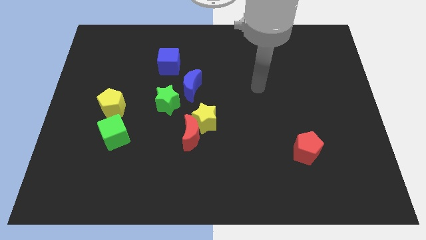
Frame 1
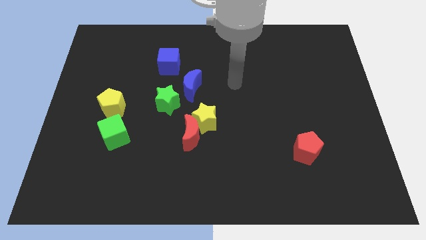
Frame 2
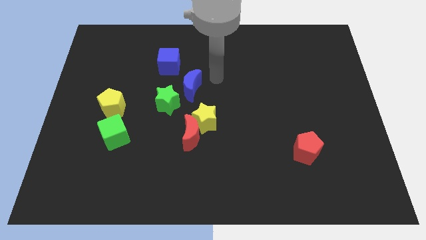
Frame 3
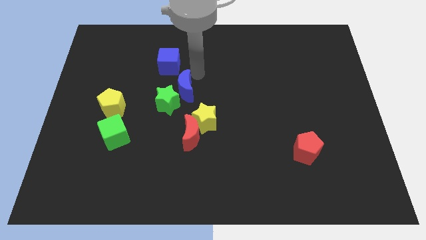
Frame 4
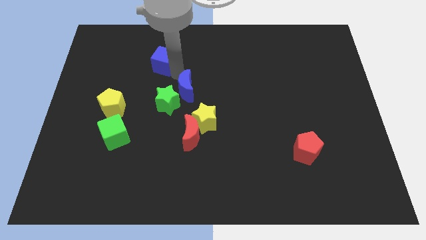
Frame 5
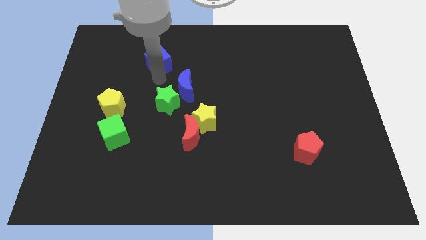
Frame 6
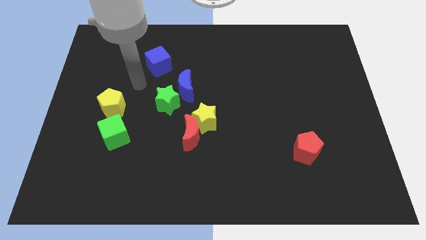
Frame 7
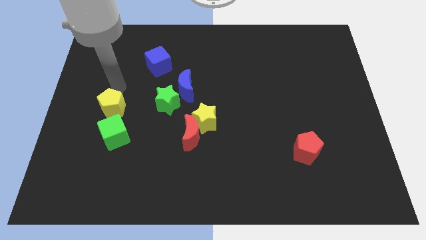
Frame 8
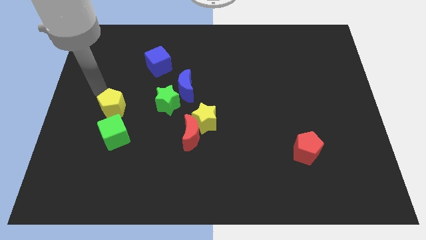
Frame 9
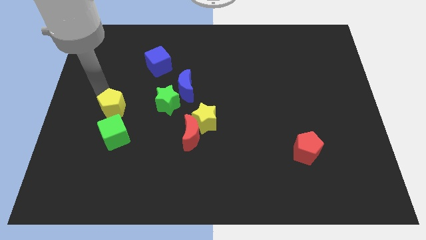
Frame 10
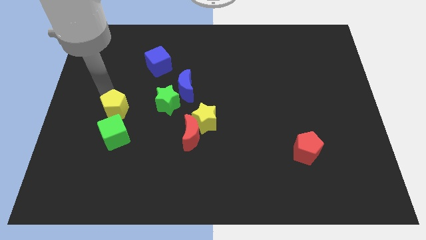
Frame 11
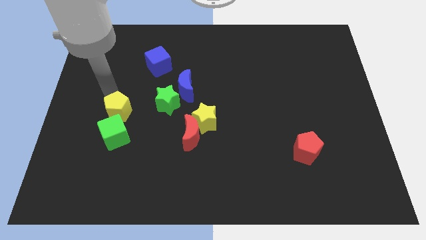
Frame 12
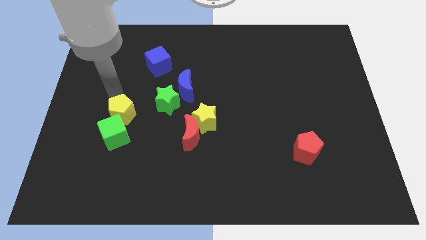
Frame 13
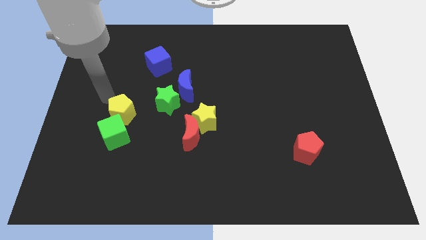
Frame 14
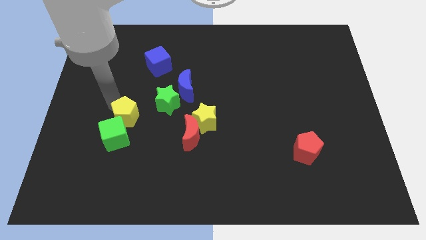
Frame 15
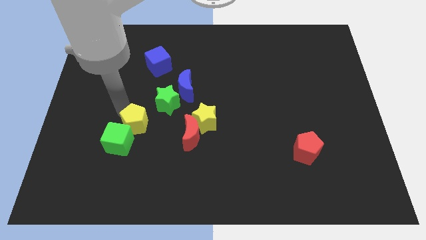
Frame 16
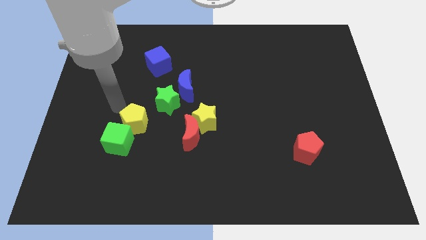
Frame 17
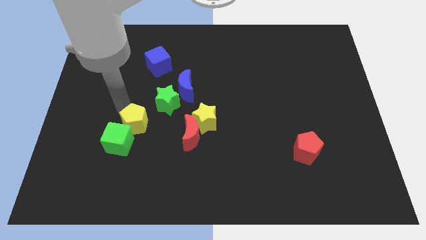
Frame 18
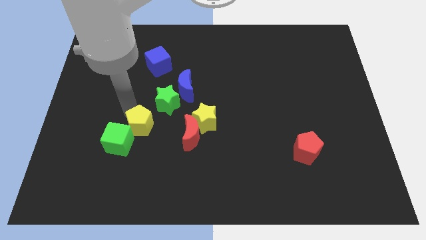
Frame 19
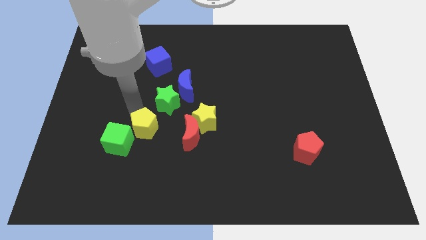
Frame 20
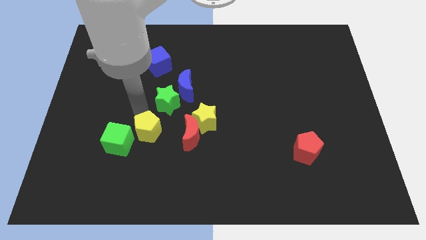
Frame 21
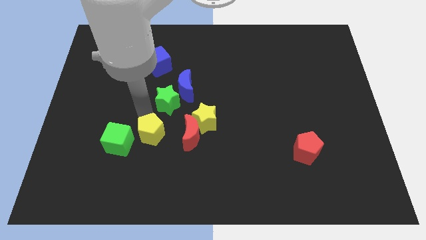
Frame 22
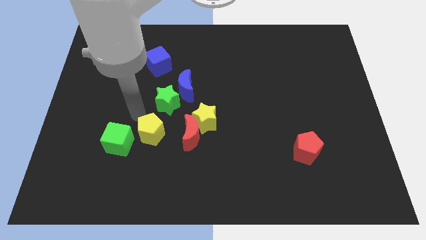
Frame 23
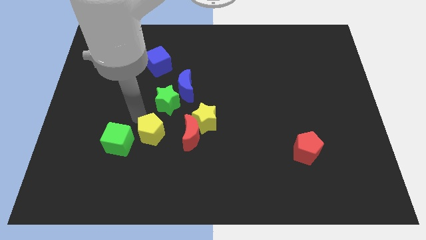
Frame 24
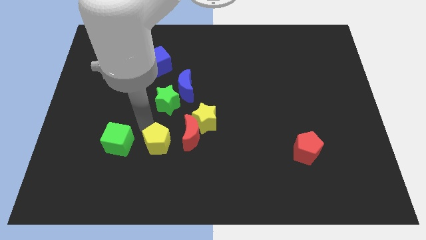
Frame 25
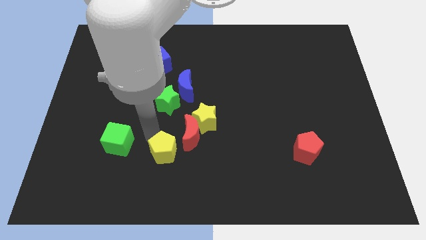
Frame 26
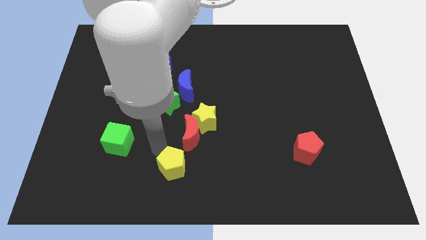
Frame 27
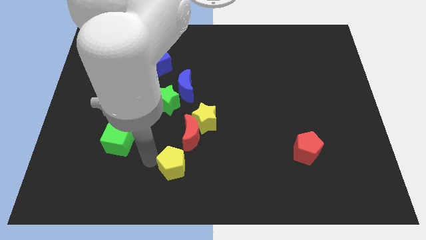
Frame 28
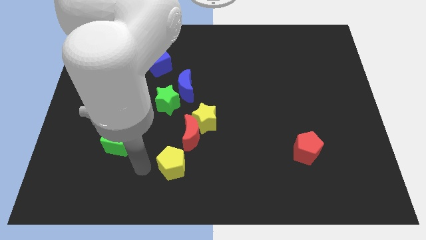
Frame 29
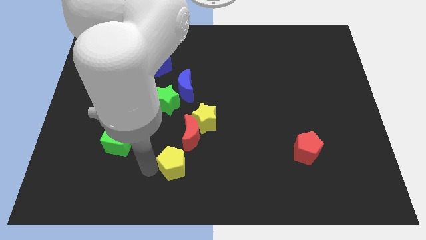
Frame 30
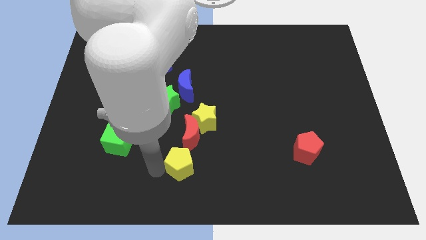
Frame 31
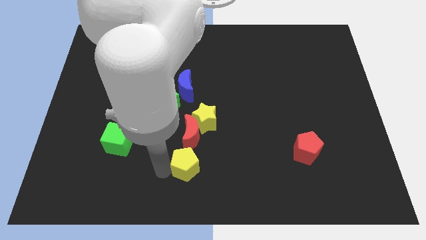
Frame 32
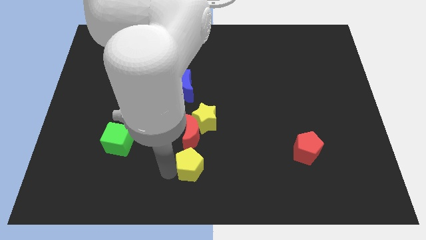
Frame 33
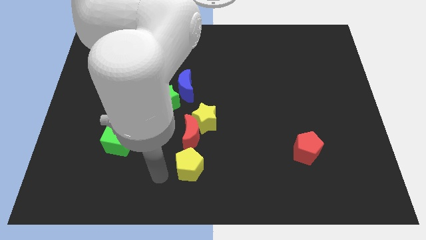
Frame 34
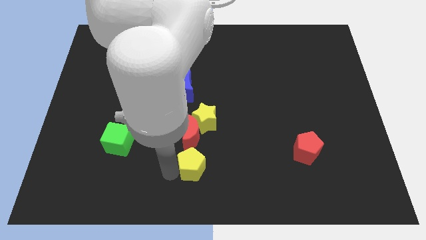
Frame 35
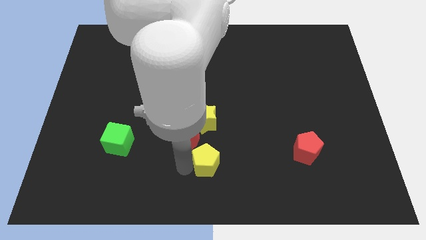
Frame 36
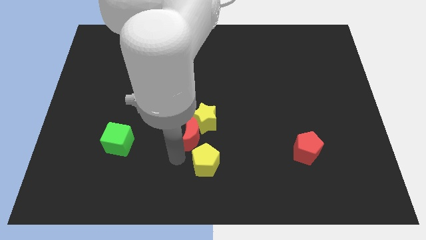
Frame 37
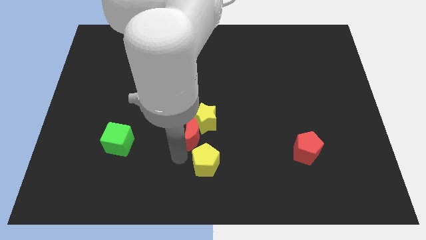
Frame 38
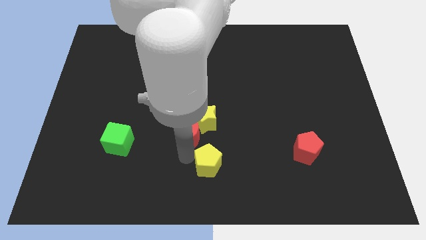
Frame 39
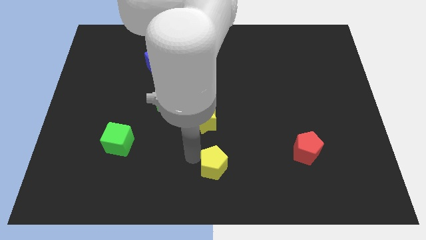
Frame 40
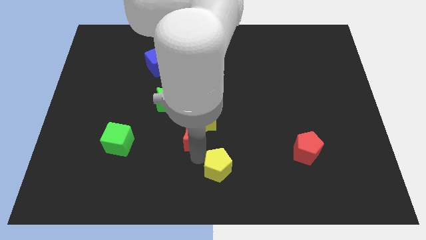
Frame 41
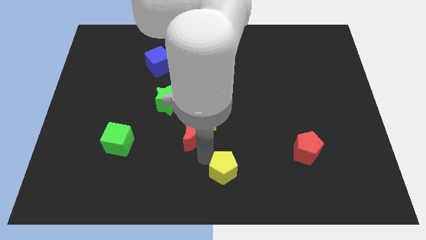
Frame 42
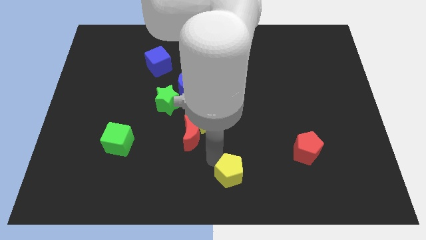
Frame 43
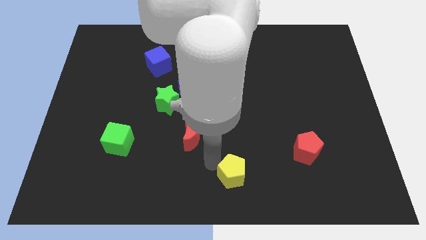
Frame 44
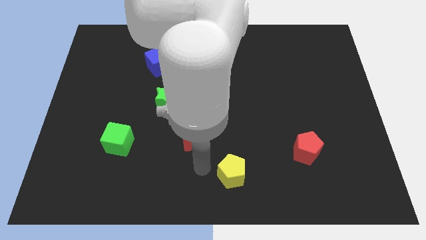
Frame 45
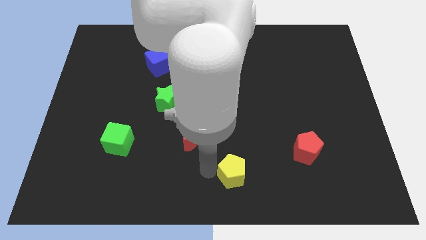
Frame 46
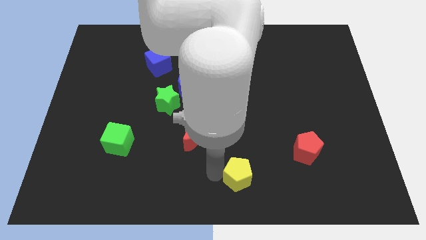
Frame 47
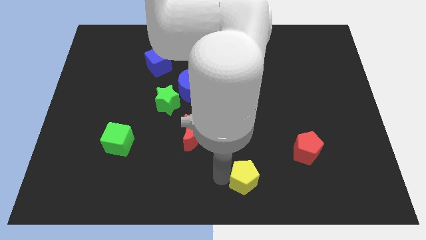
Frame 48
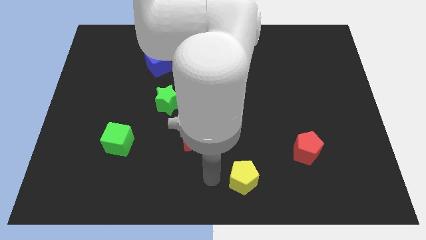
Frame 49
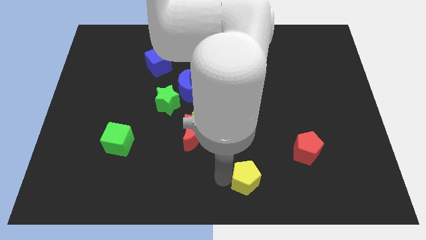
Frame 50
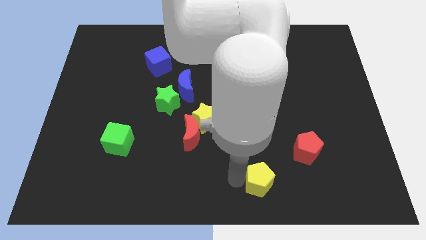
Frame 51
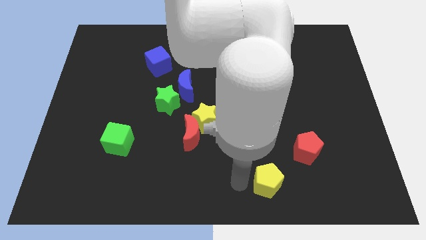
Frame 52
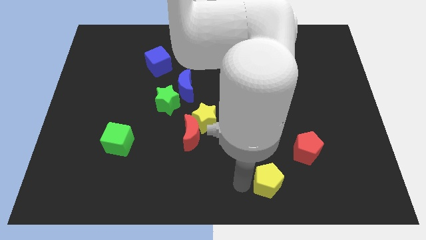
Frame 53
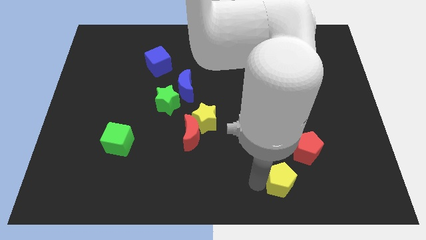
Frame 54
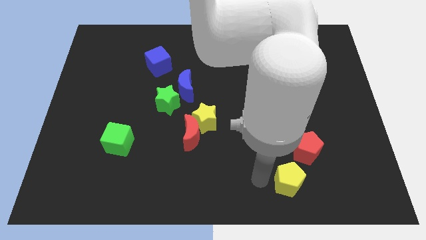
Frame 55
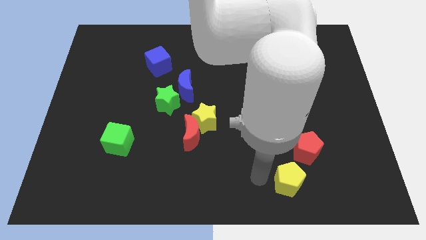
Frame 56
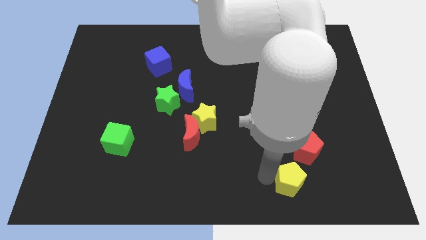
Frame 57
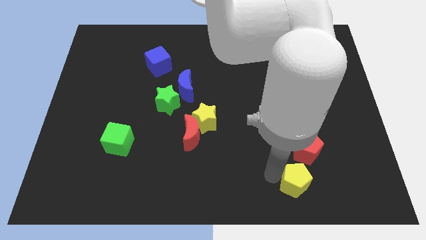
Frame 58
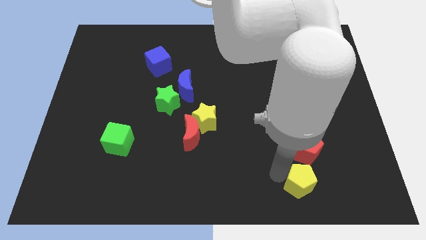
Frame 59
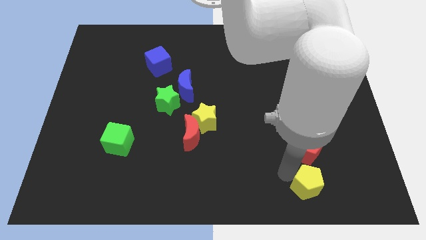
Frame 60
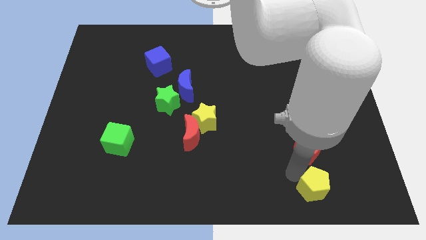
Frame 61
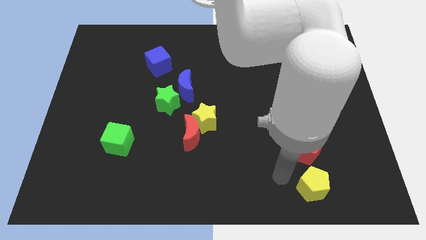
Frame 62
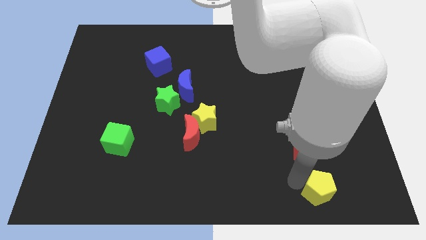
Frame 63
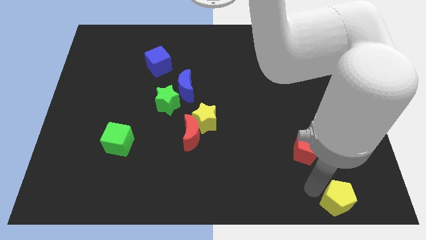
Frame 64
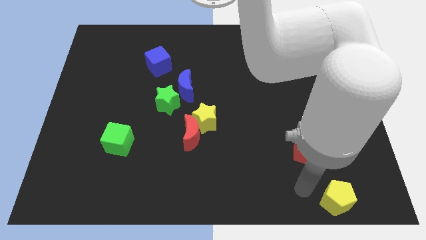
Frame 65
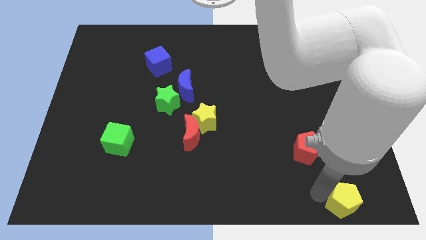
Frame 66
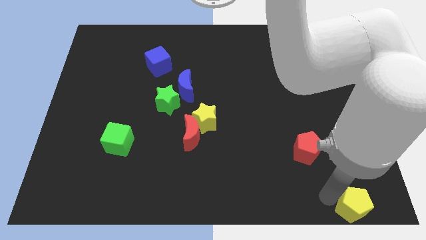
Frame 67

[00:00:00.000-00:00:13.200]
push the yellow pentagon to the bottom right
